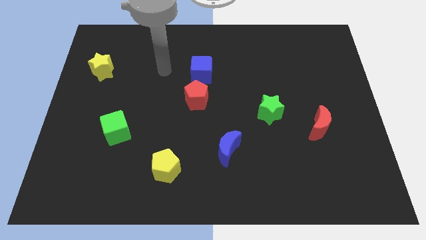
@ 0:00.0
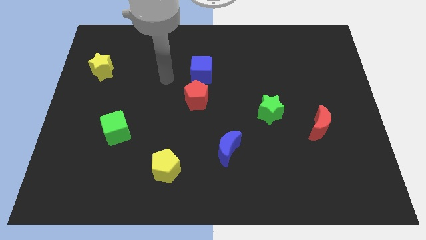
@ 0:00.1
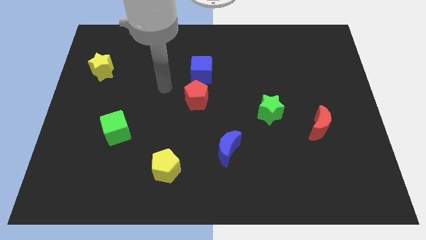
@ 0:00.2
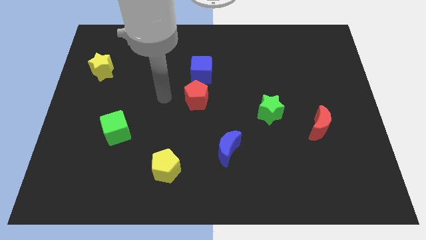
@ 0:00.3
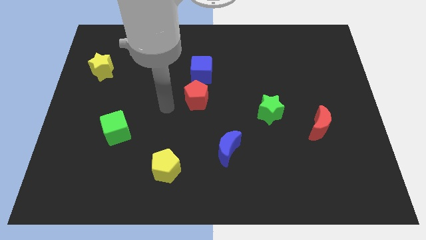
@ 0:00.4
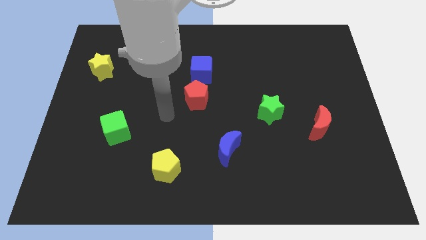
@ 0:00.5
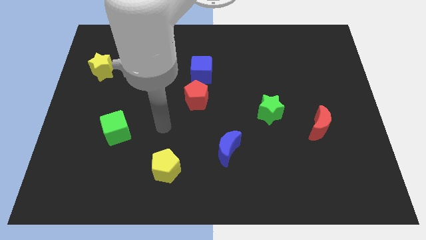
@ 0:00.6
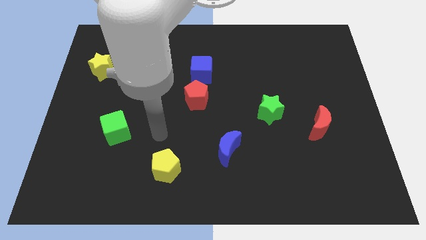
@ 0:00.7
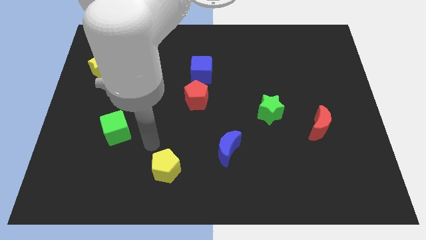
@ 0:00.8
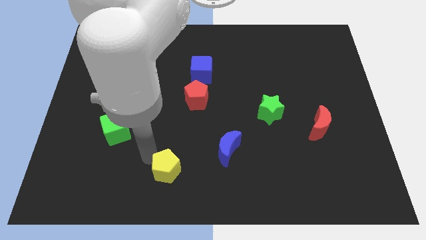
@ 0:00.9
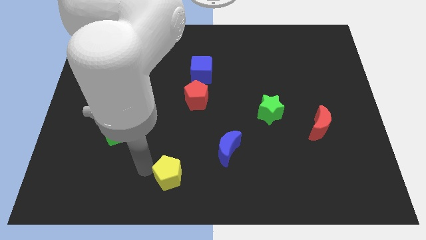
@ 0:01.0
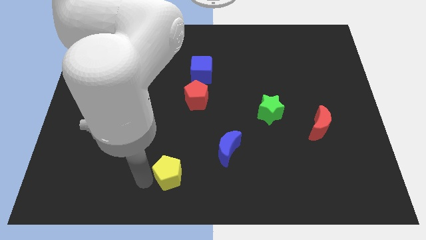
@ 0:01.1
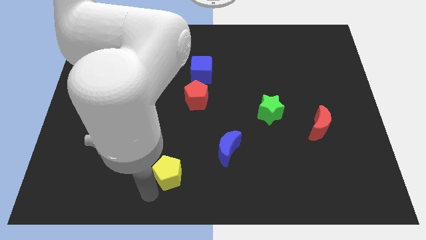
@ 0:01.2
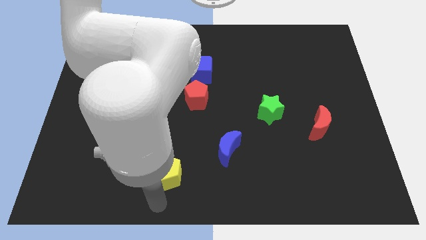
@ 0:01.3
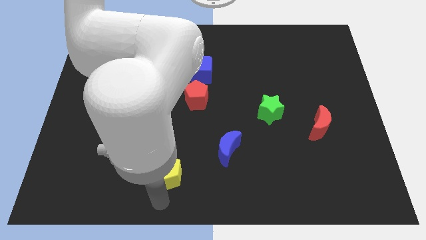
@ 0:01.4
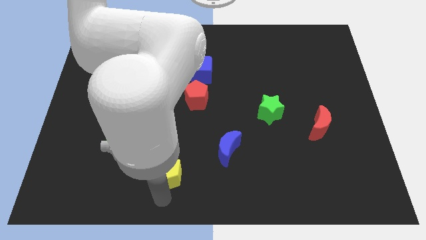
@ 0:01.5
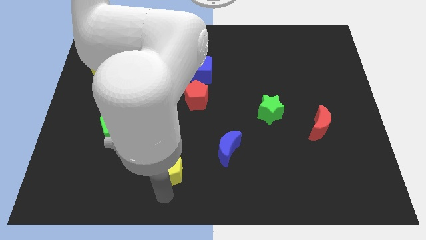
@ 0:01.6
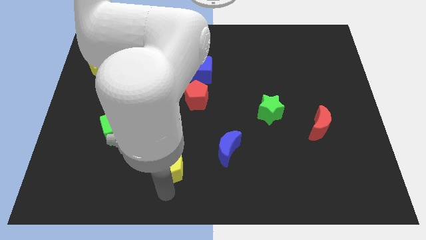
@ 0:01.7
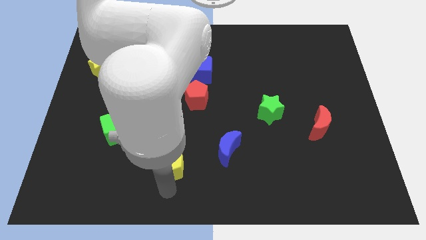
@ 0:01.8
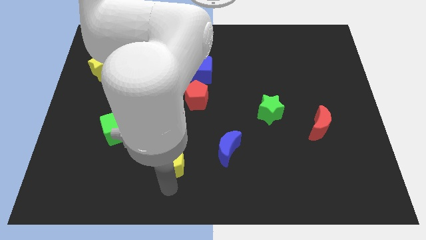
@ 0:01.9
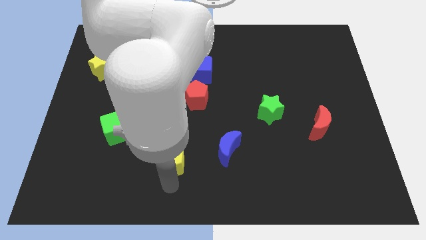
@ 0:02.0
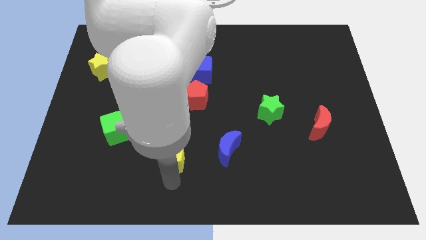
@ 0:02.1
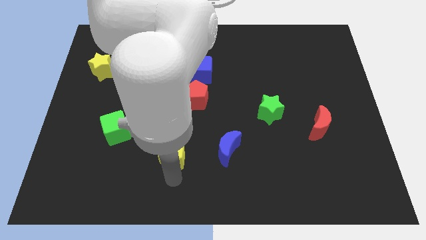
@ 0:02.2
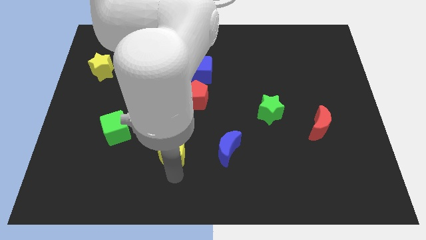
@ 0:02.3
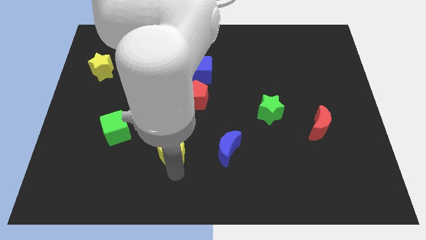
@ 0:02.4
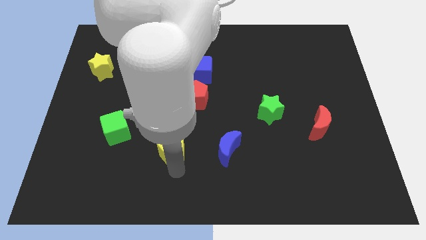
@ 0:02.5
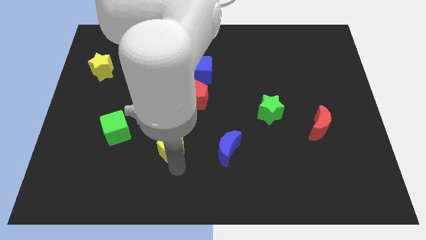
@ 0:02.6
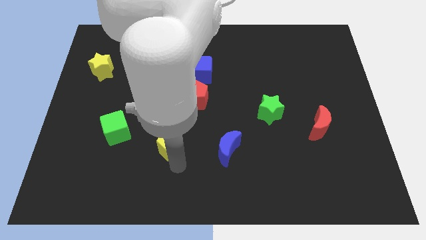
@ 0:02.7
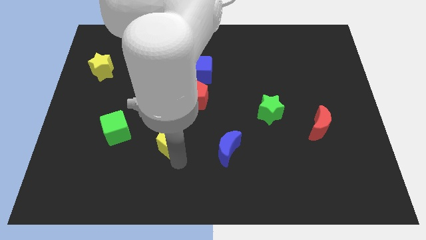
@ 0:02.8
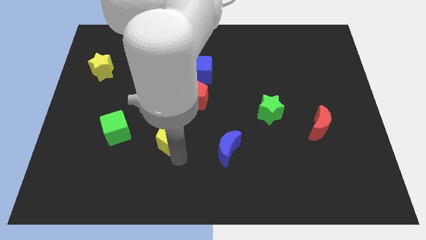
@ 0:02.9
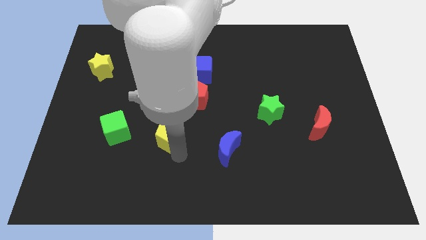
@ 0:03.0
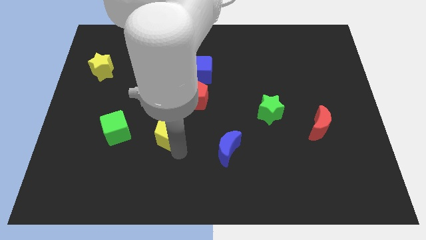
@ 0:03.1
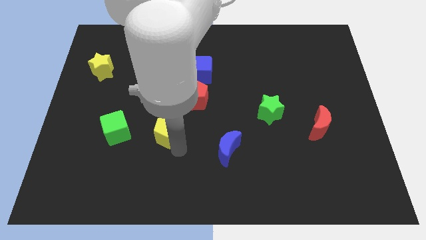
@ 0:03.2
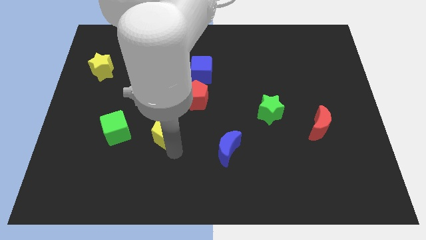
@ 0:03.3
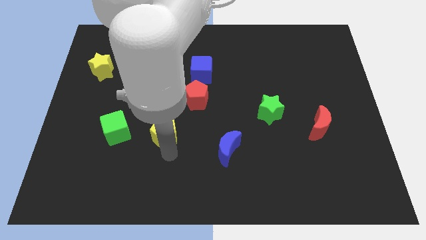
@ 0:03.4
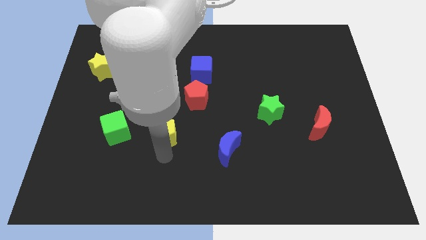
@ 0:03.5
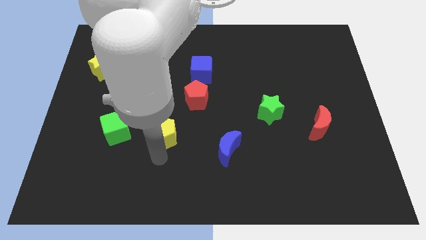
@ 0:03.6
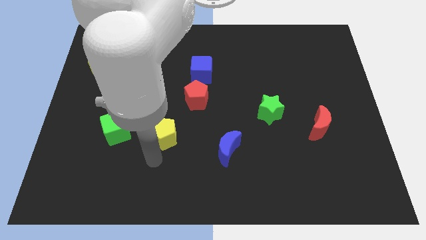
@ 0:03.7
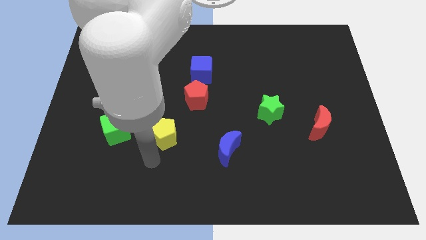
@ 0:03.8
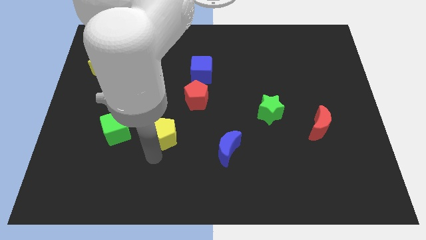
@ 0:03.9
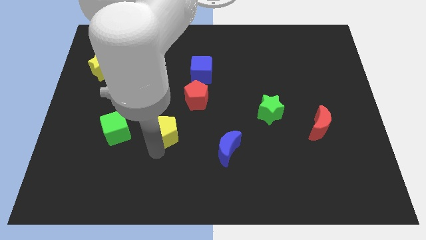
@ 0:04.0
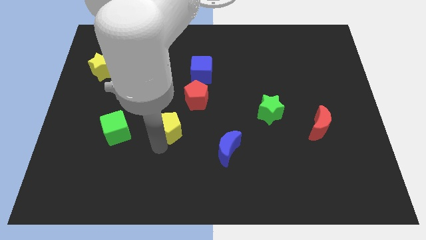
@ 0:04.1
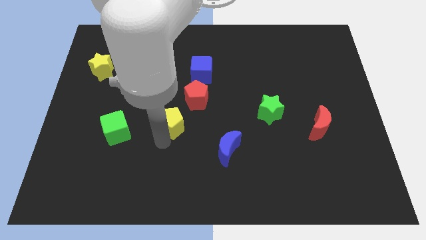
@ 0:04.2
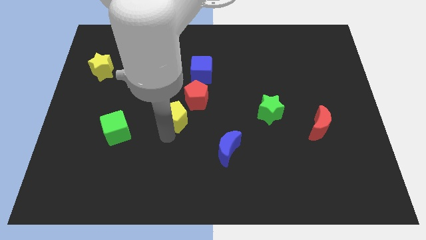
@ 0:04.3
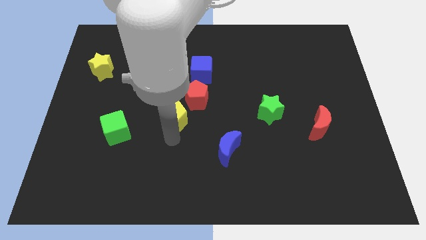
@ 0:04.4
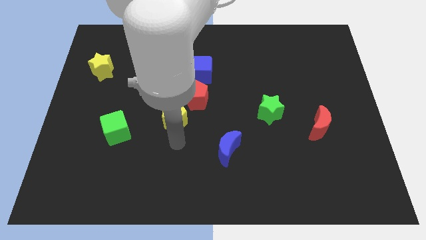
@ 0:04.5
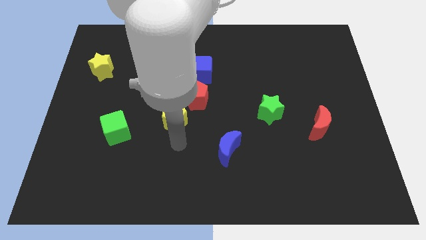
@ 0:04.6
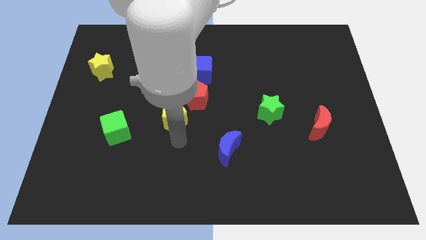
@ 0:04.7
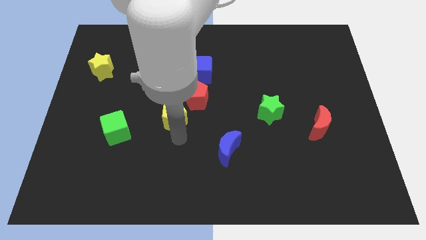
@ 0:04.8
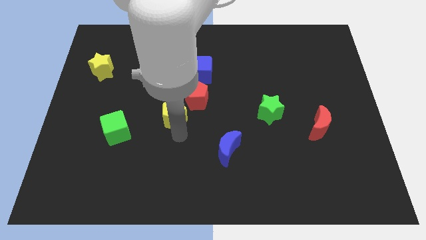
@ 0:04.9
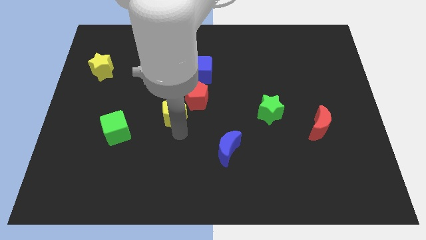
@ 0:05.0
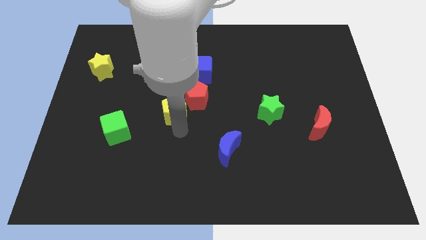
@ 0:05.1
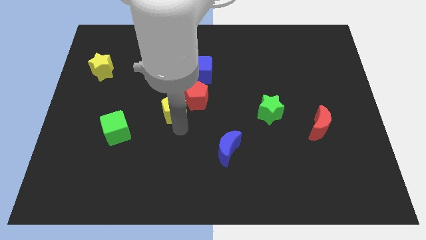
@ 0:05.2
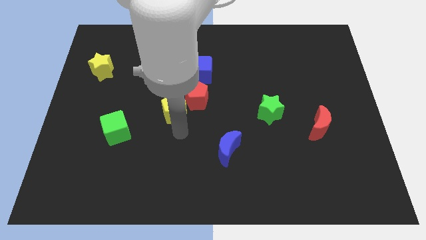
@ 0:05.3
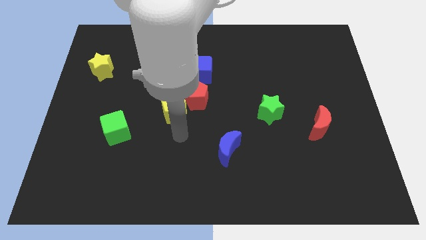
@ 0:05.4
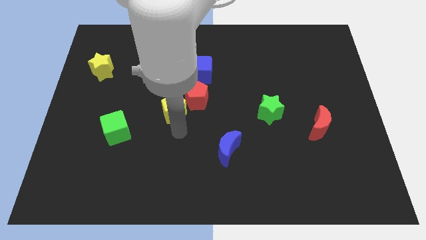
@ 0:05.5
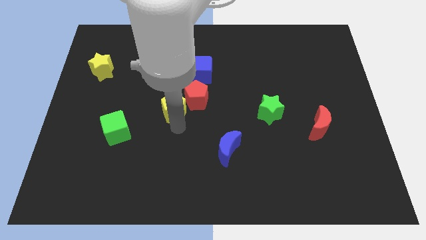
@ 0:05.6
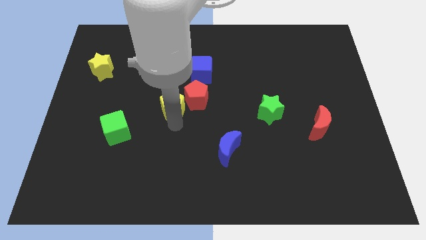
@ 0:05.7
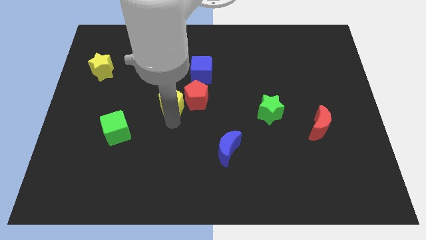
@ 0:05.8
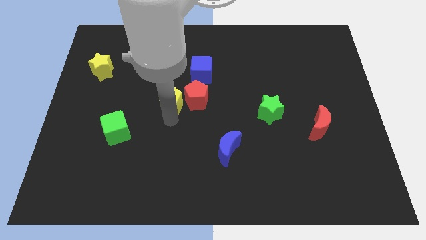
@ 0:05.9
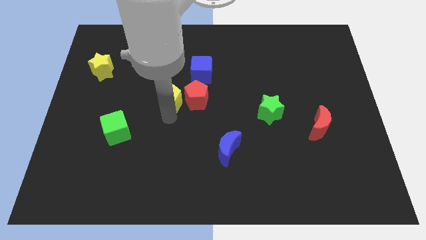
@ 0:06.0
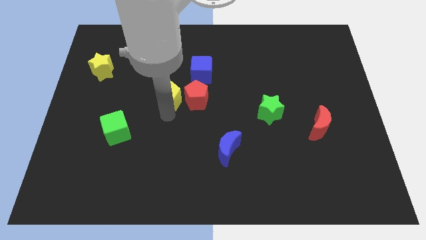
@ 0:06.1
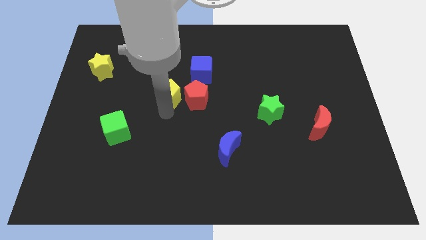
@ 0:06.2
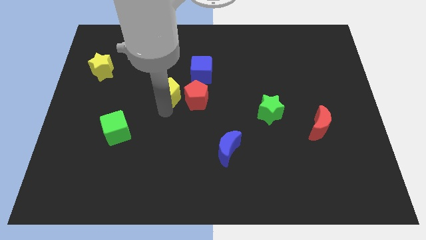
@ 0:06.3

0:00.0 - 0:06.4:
push the yellow pentagon upwards

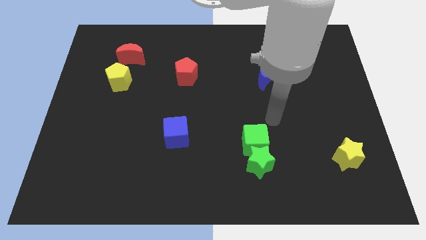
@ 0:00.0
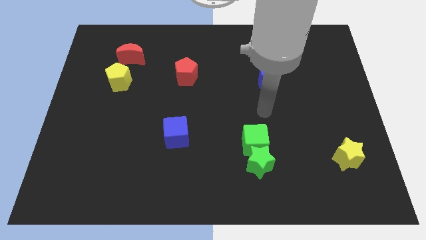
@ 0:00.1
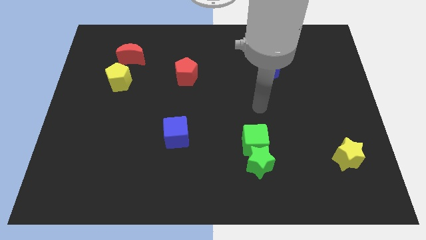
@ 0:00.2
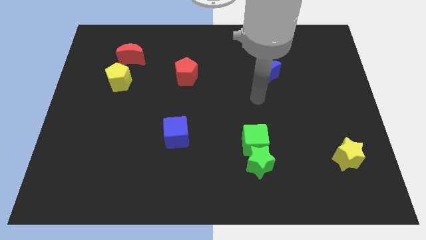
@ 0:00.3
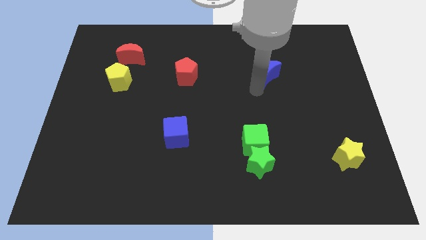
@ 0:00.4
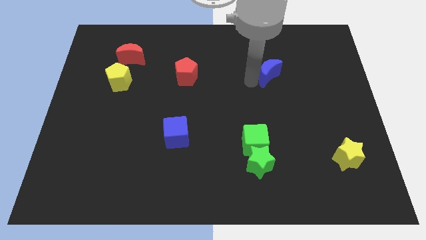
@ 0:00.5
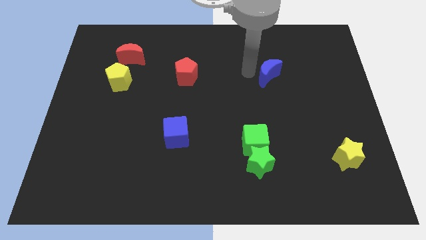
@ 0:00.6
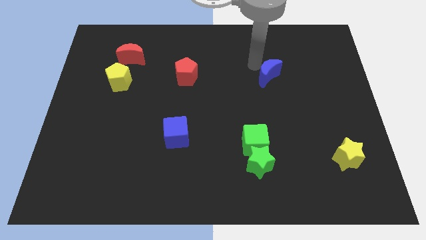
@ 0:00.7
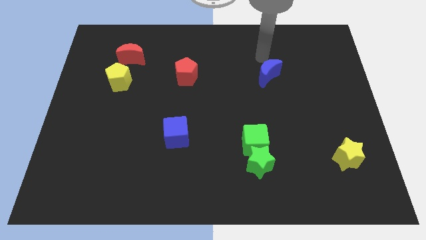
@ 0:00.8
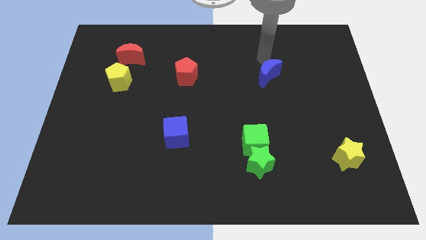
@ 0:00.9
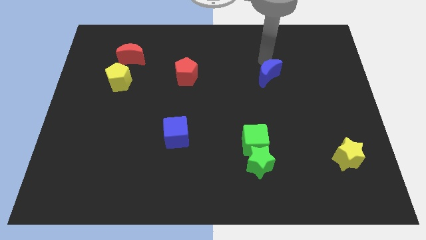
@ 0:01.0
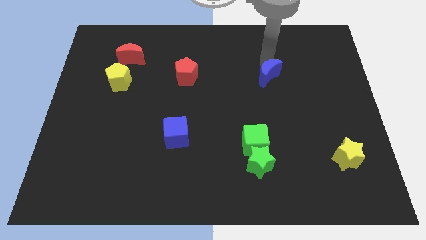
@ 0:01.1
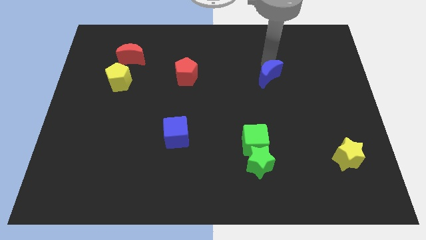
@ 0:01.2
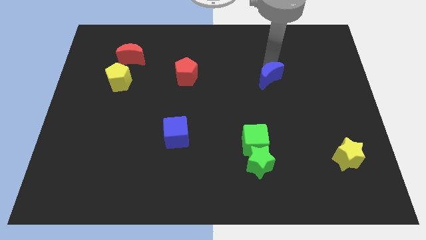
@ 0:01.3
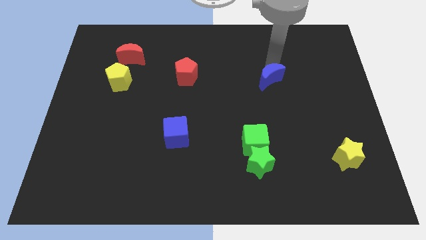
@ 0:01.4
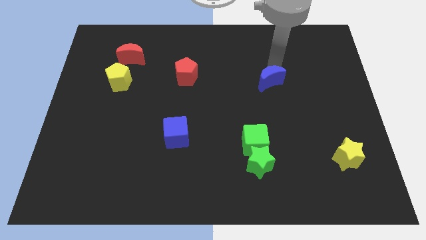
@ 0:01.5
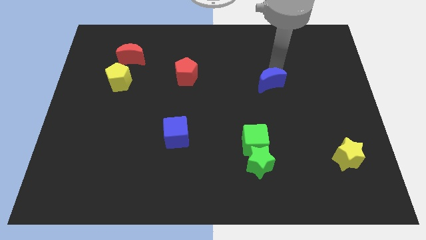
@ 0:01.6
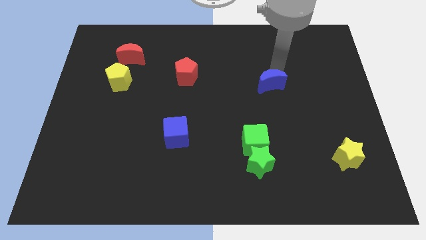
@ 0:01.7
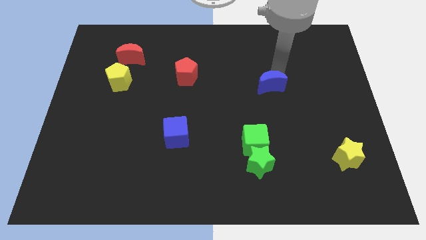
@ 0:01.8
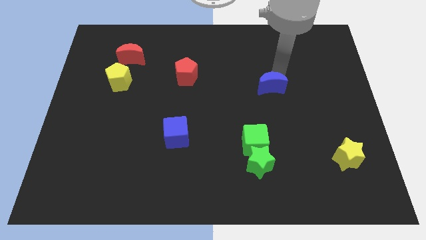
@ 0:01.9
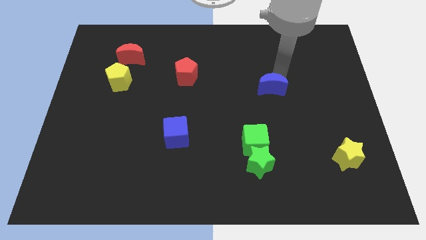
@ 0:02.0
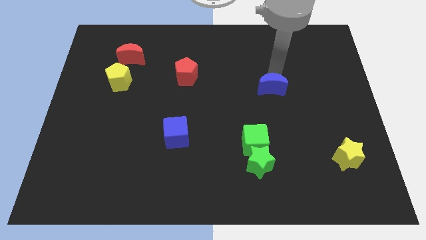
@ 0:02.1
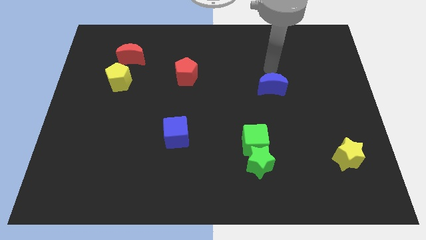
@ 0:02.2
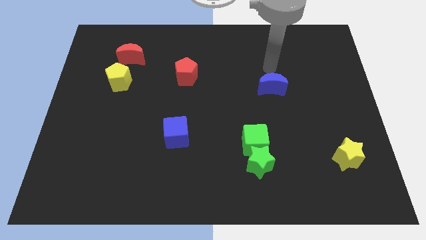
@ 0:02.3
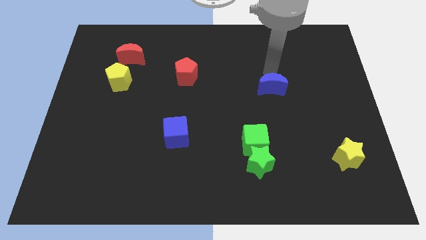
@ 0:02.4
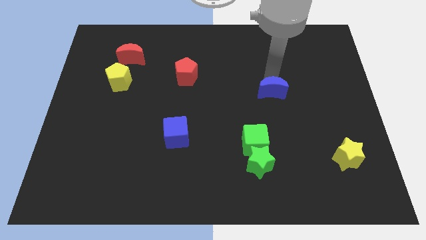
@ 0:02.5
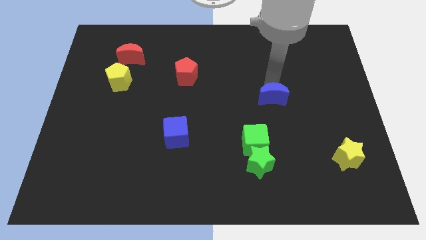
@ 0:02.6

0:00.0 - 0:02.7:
push the blue moon down a little bit
